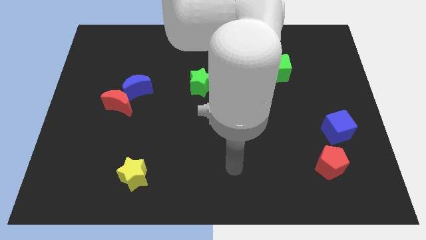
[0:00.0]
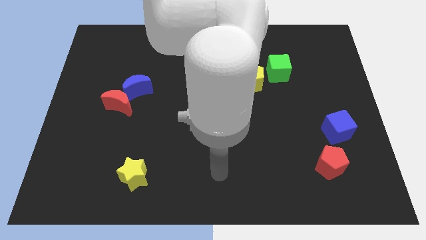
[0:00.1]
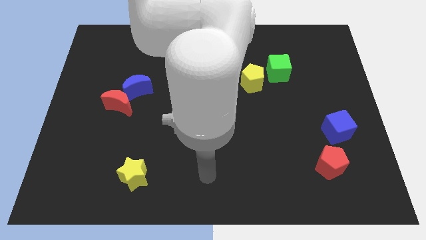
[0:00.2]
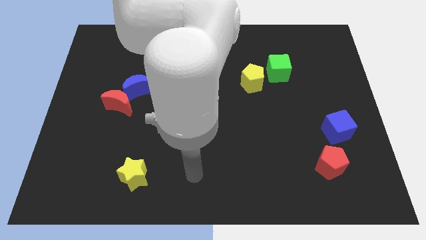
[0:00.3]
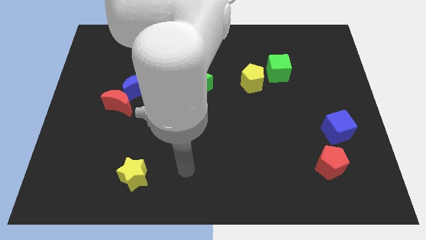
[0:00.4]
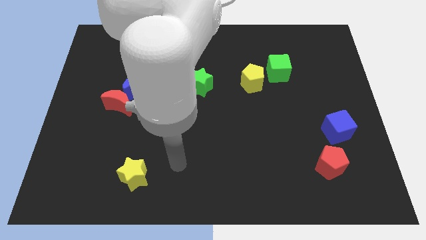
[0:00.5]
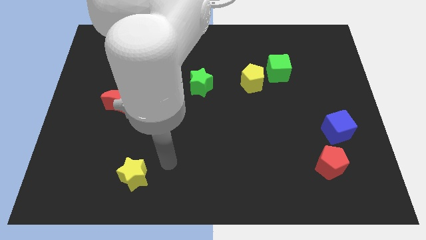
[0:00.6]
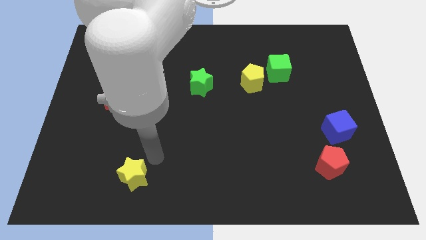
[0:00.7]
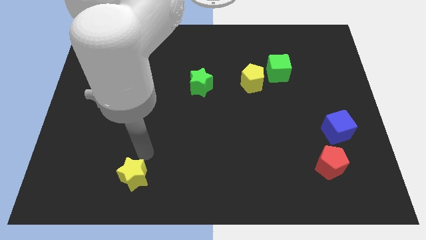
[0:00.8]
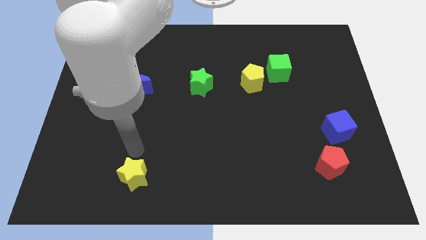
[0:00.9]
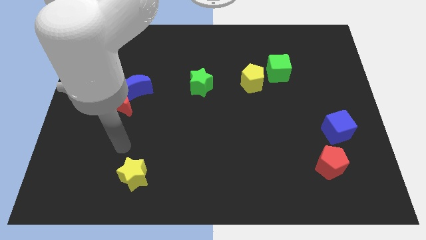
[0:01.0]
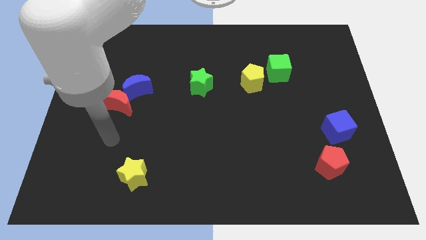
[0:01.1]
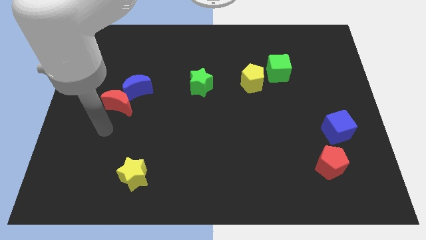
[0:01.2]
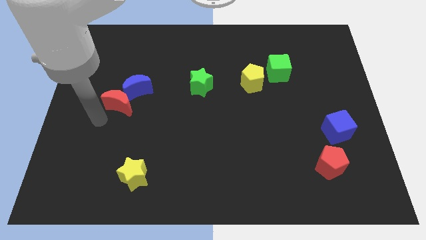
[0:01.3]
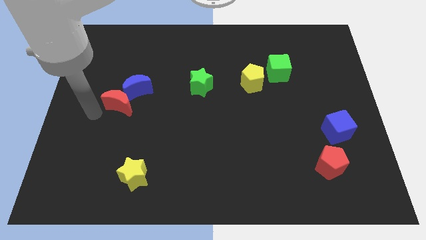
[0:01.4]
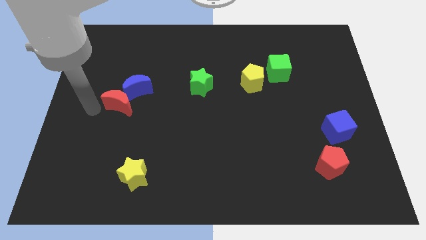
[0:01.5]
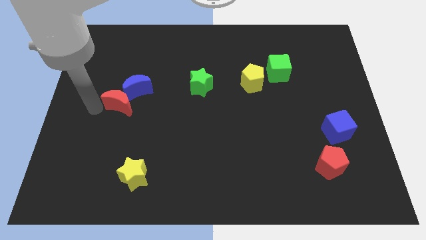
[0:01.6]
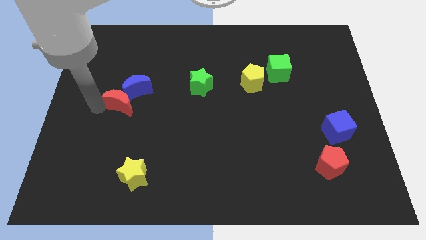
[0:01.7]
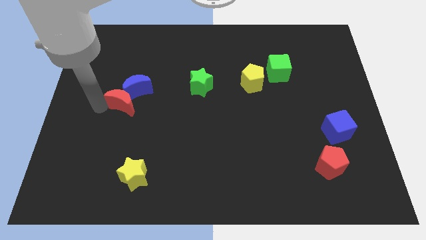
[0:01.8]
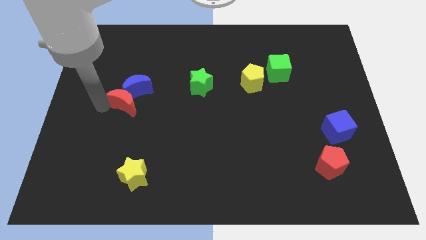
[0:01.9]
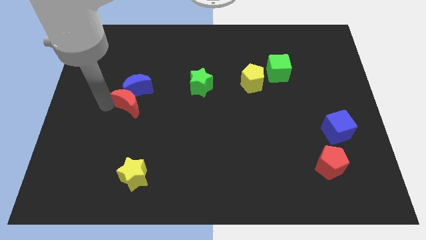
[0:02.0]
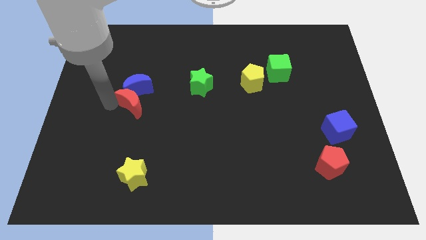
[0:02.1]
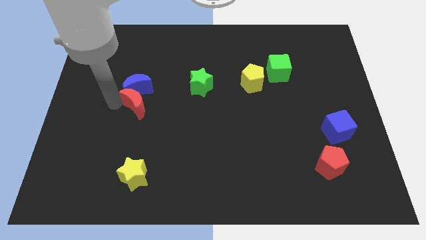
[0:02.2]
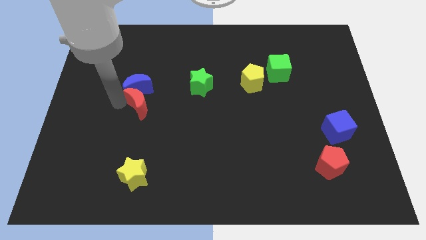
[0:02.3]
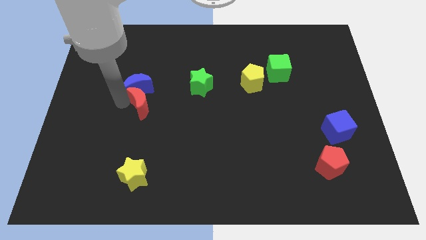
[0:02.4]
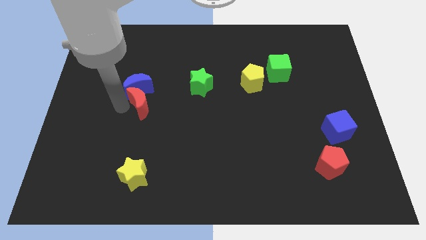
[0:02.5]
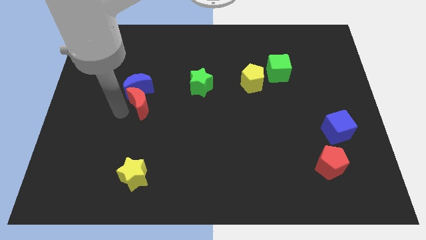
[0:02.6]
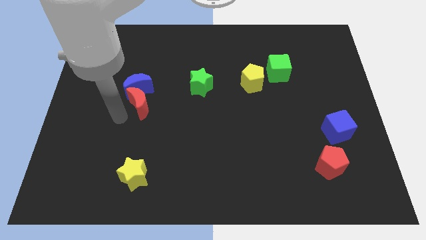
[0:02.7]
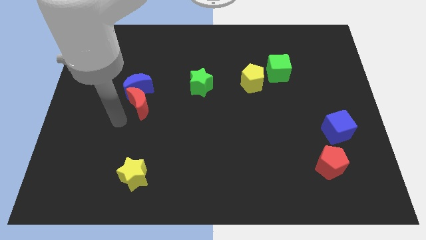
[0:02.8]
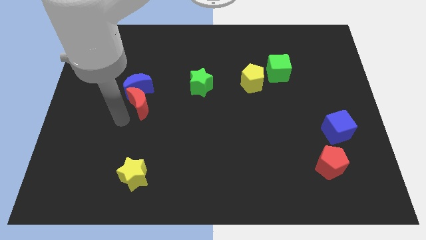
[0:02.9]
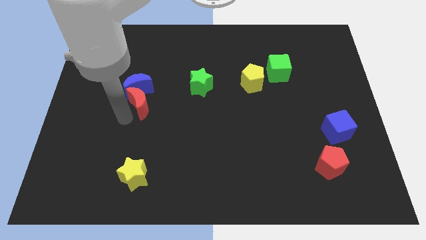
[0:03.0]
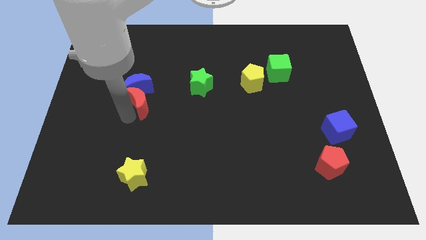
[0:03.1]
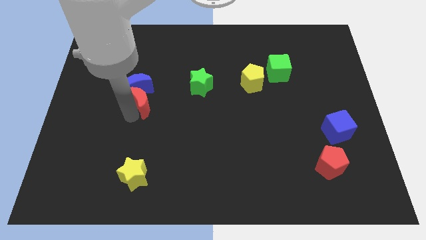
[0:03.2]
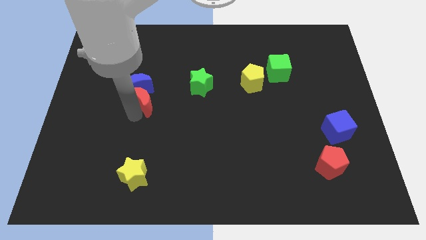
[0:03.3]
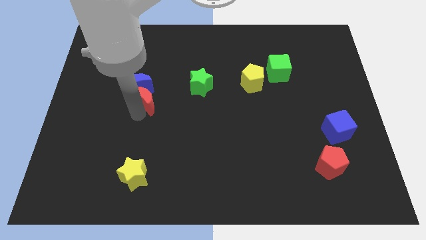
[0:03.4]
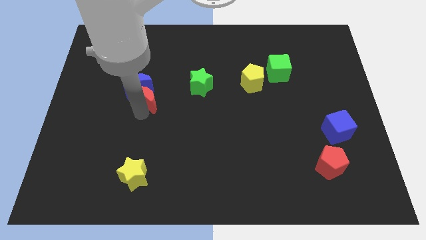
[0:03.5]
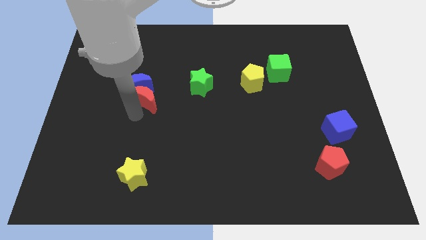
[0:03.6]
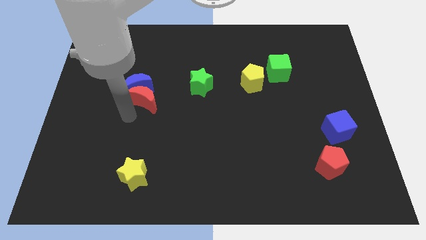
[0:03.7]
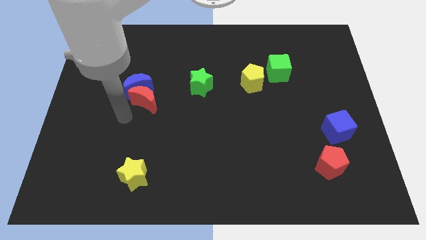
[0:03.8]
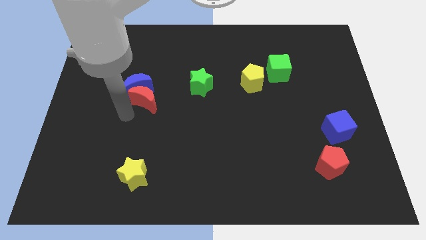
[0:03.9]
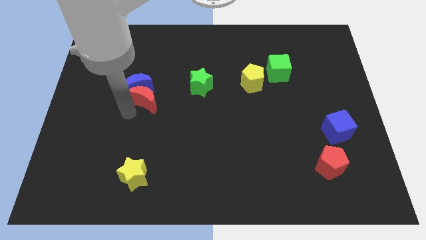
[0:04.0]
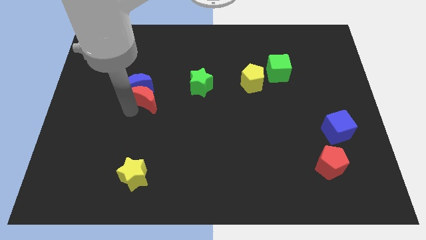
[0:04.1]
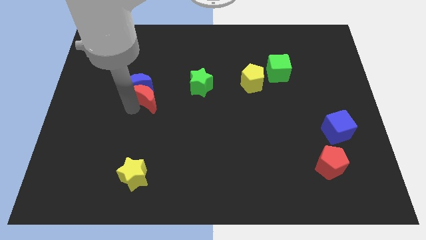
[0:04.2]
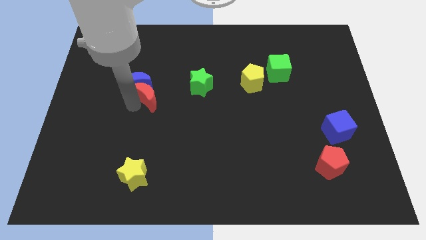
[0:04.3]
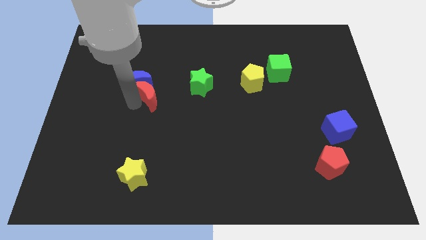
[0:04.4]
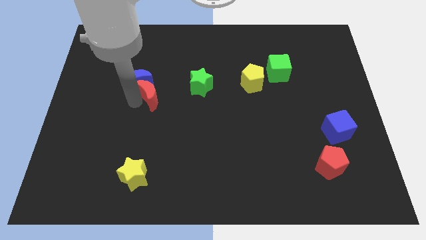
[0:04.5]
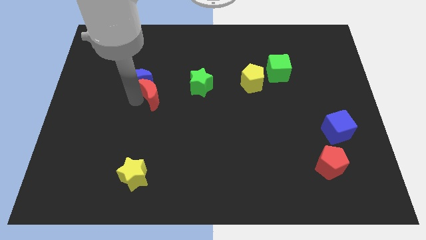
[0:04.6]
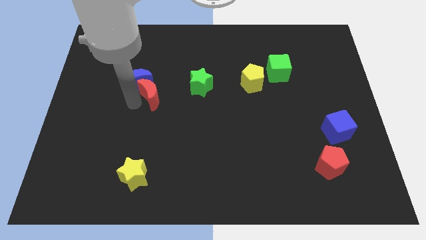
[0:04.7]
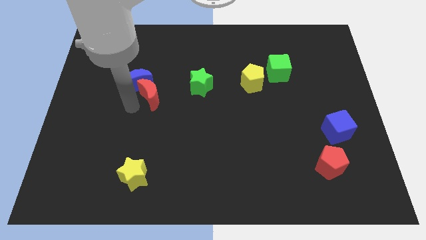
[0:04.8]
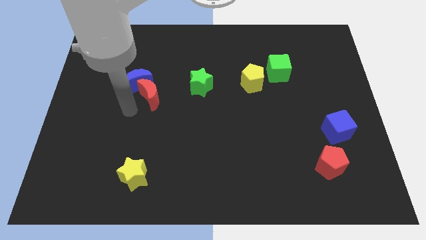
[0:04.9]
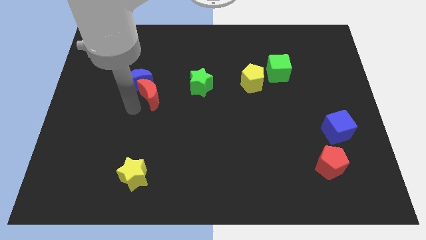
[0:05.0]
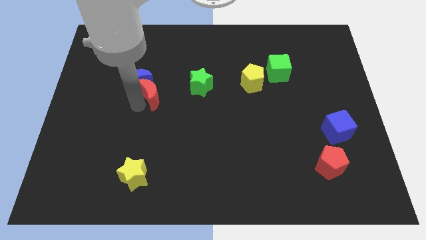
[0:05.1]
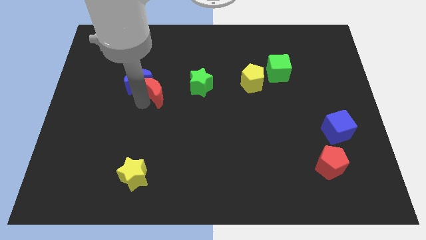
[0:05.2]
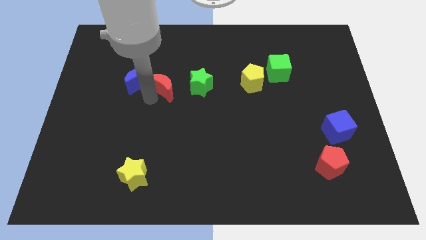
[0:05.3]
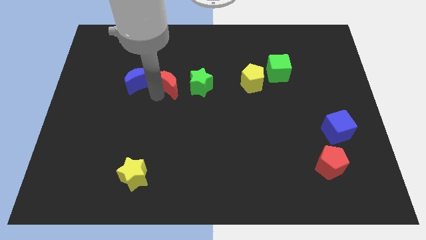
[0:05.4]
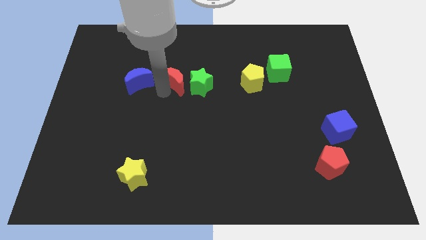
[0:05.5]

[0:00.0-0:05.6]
put the red moon to the top left side of the green star

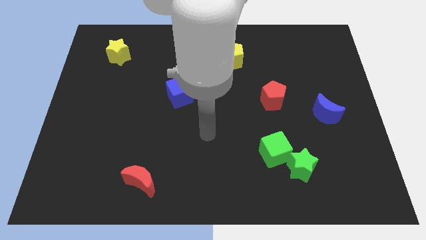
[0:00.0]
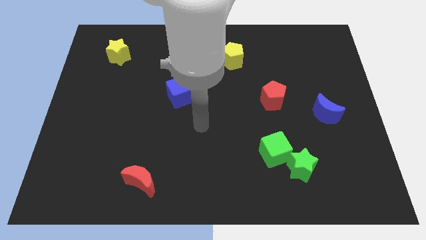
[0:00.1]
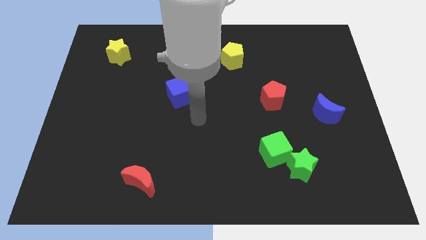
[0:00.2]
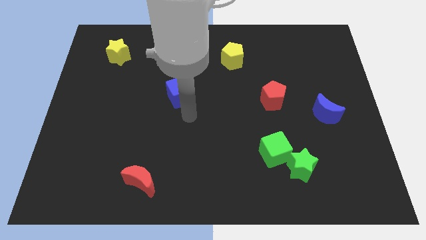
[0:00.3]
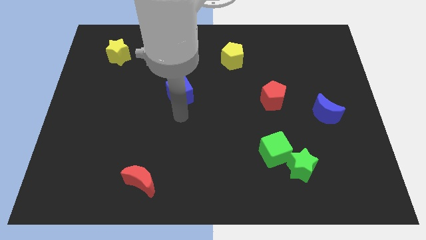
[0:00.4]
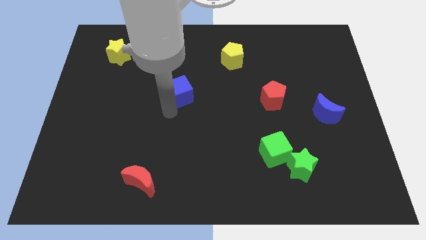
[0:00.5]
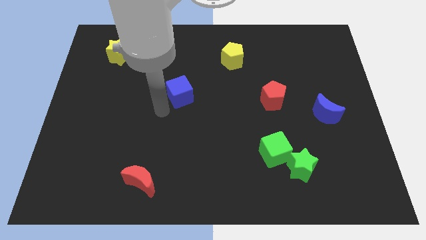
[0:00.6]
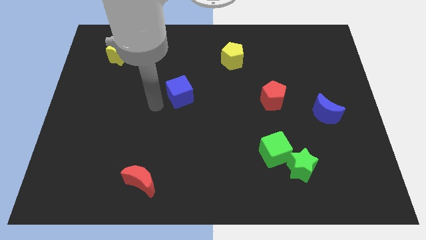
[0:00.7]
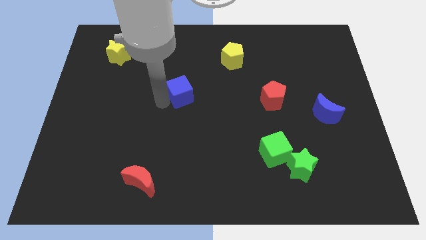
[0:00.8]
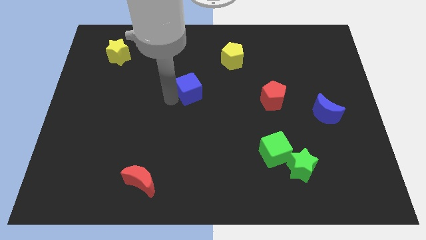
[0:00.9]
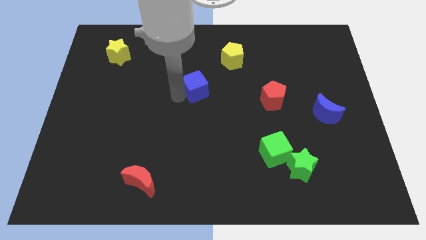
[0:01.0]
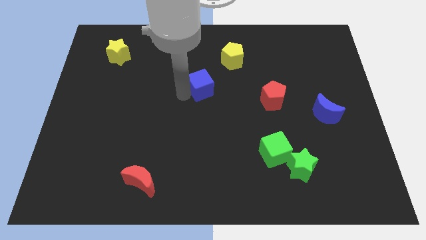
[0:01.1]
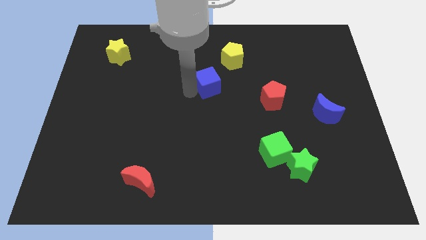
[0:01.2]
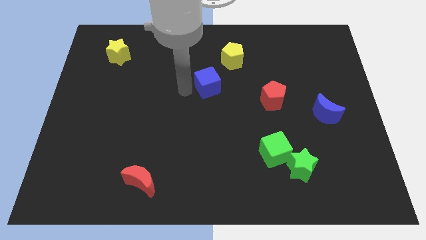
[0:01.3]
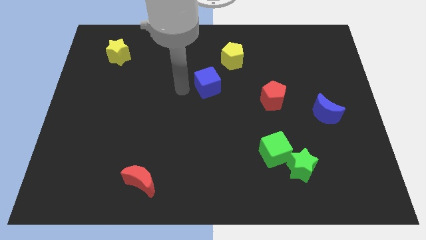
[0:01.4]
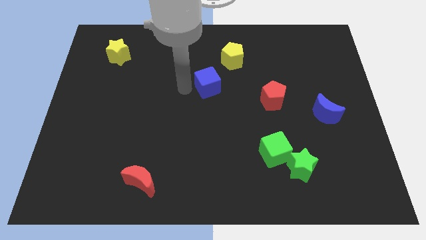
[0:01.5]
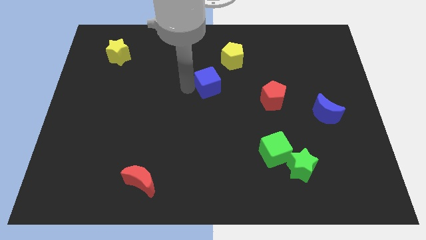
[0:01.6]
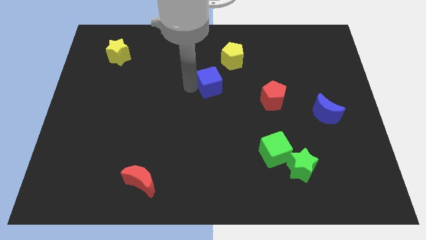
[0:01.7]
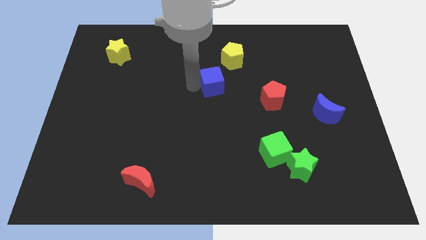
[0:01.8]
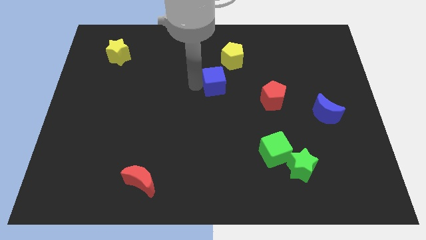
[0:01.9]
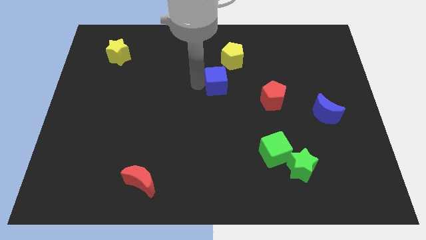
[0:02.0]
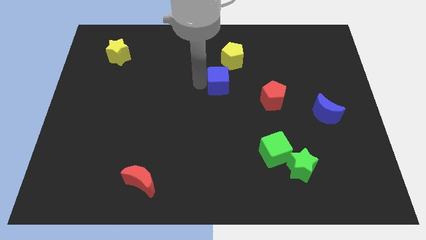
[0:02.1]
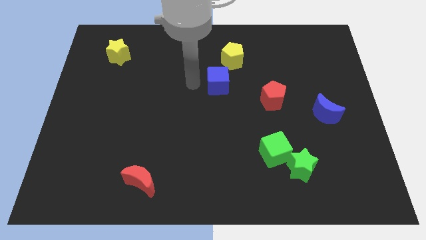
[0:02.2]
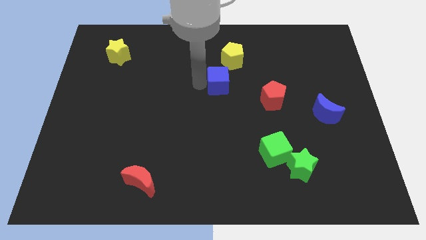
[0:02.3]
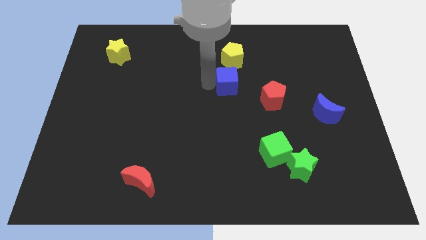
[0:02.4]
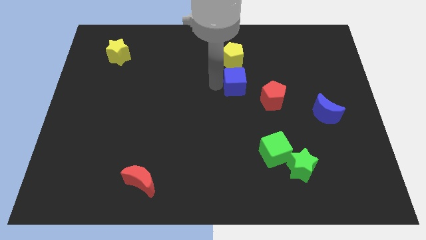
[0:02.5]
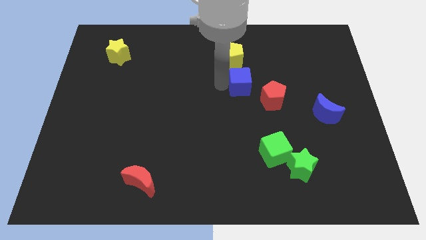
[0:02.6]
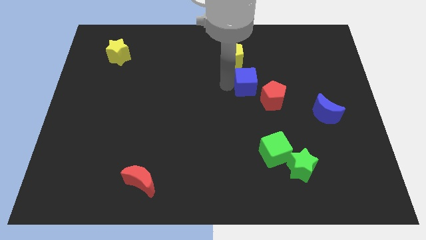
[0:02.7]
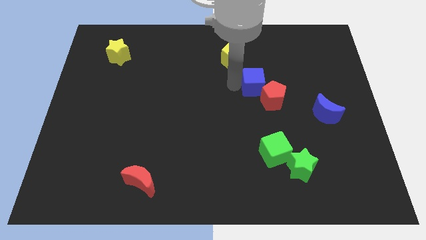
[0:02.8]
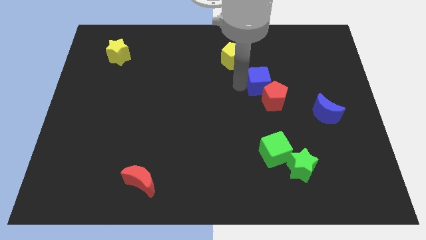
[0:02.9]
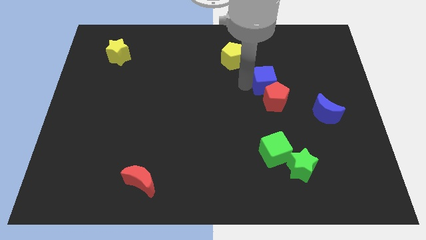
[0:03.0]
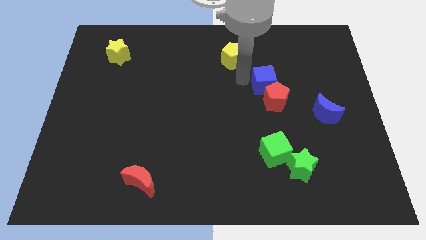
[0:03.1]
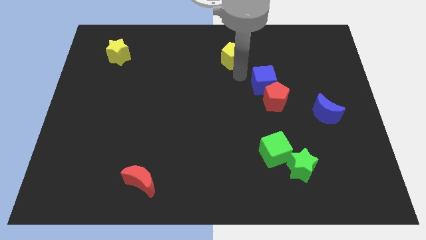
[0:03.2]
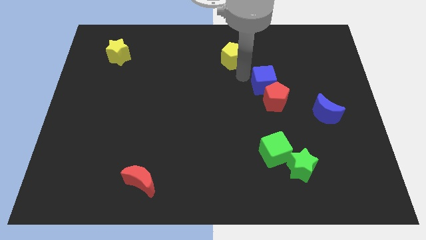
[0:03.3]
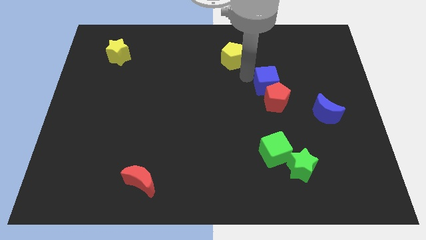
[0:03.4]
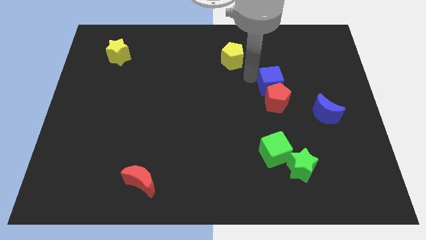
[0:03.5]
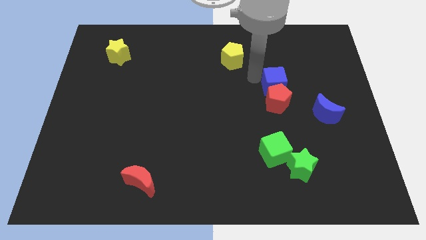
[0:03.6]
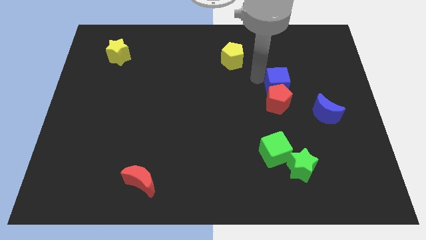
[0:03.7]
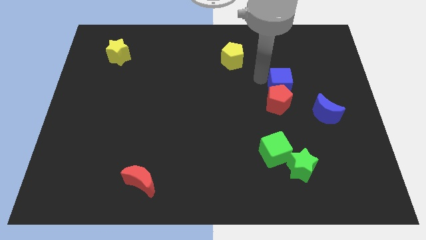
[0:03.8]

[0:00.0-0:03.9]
put the blue cube to the top left side of the blue moon
